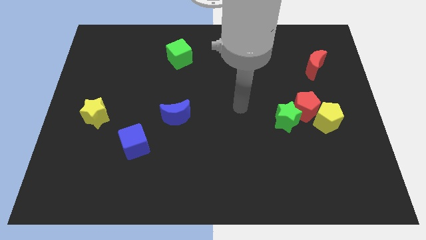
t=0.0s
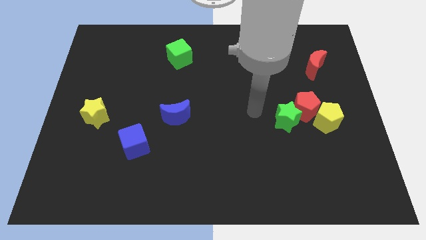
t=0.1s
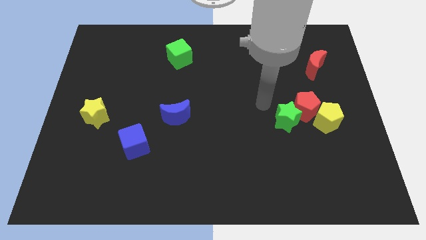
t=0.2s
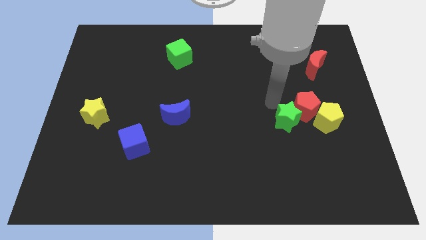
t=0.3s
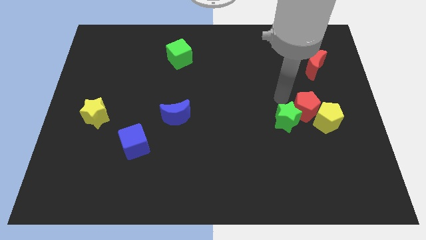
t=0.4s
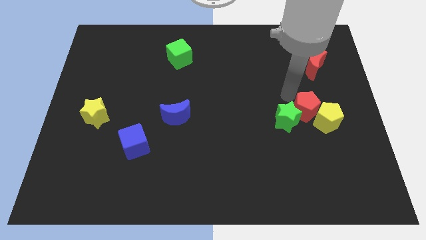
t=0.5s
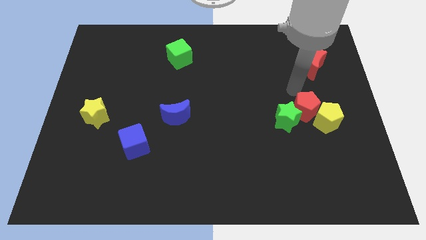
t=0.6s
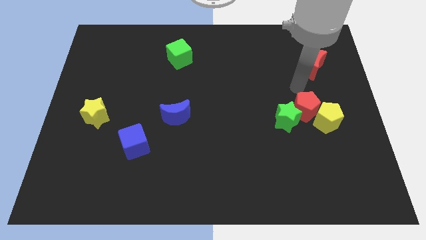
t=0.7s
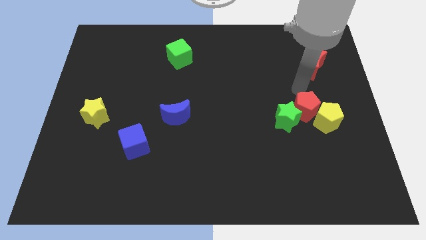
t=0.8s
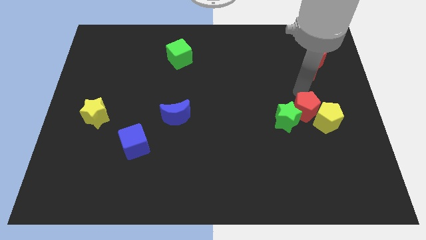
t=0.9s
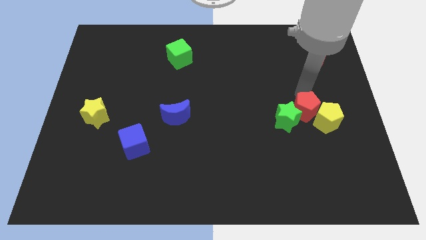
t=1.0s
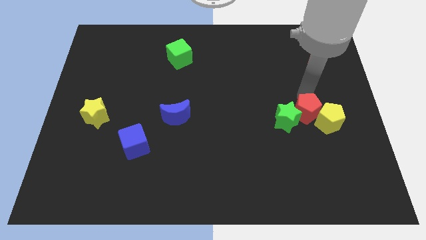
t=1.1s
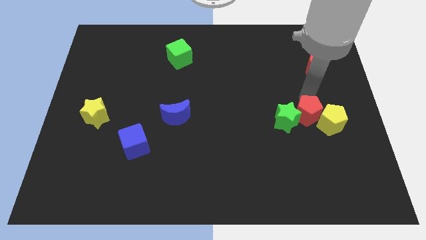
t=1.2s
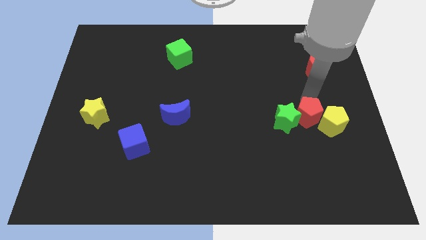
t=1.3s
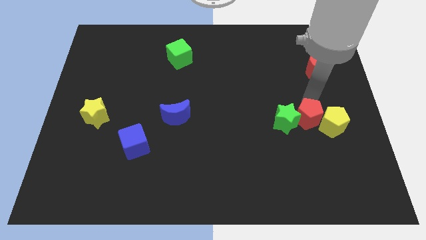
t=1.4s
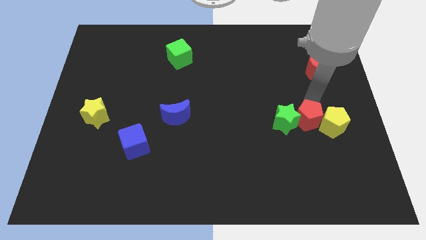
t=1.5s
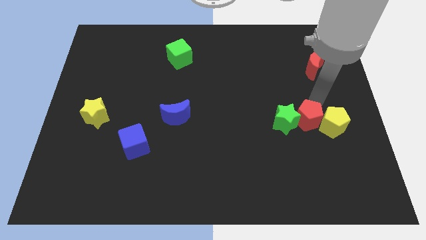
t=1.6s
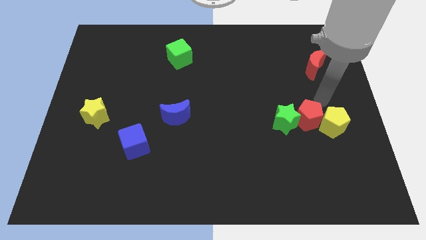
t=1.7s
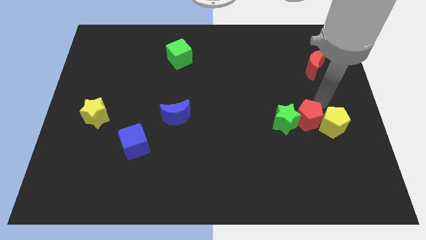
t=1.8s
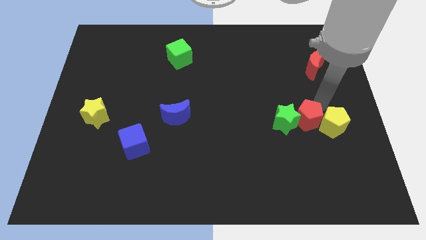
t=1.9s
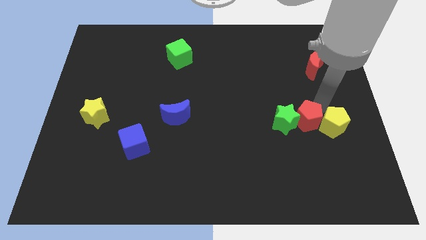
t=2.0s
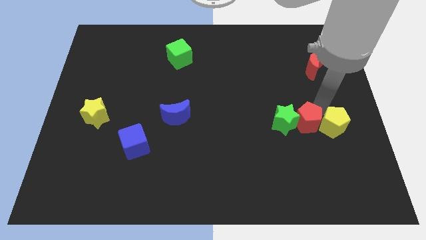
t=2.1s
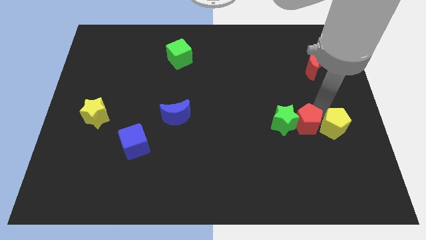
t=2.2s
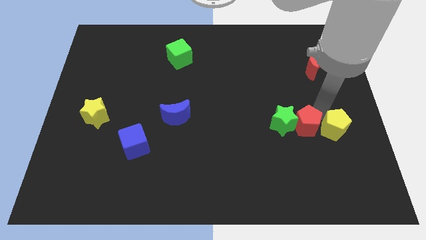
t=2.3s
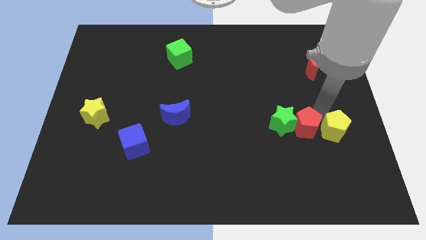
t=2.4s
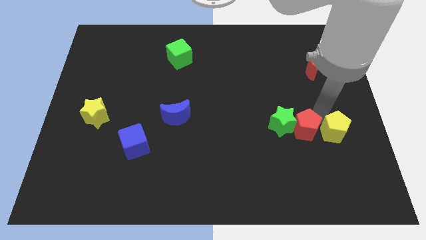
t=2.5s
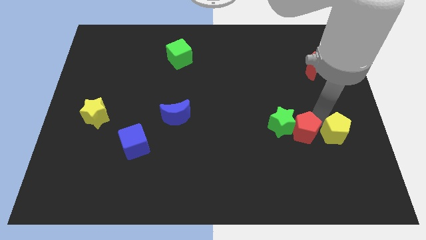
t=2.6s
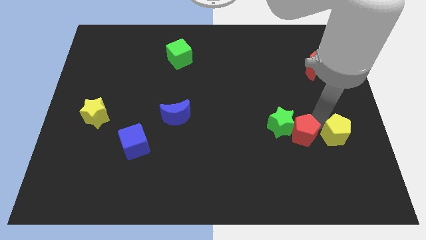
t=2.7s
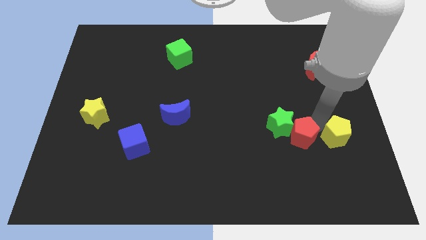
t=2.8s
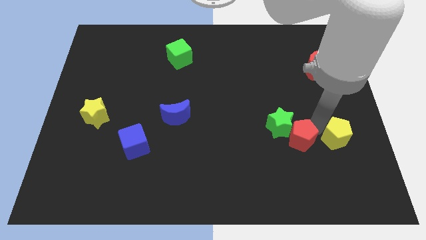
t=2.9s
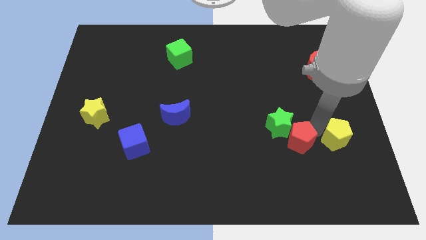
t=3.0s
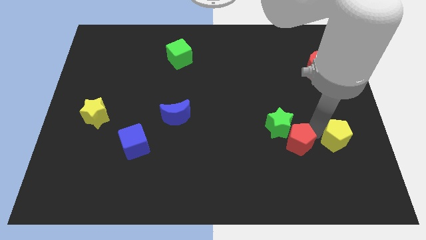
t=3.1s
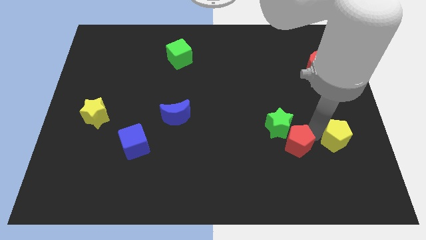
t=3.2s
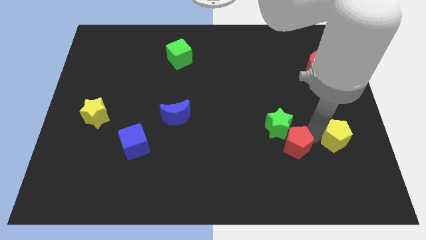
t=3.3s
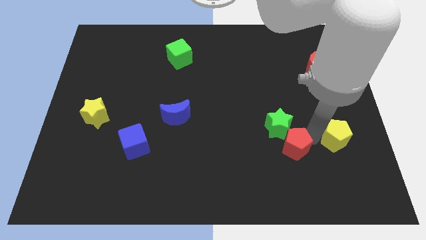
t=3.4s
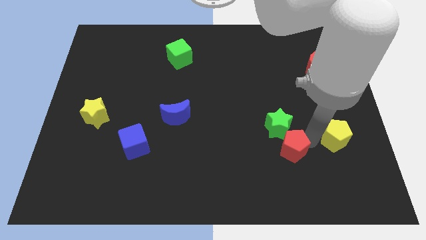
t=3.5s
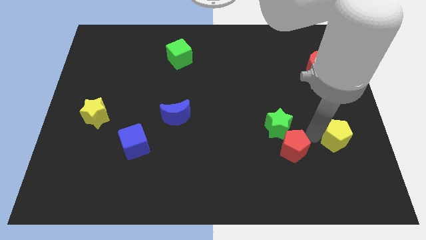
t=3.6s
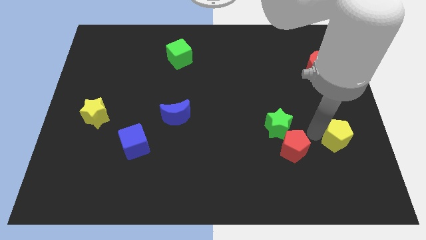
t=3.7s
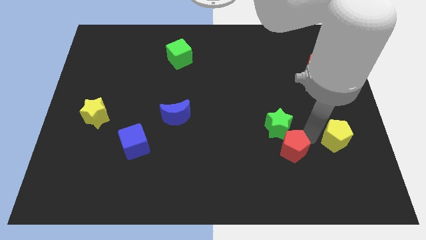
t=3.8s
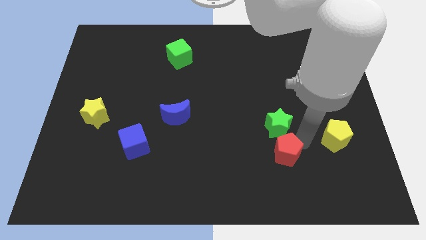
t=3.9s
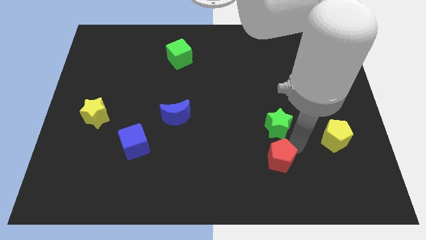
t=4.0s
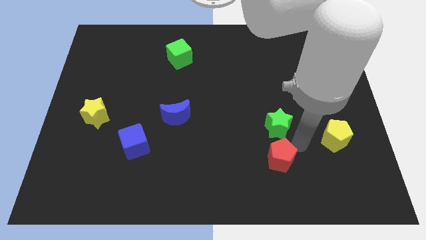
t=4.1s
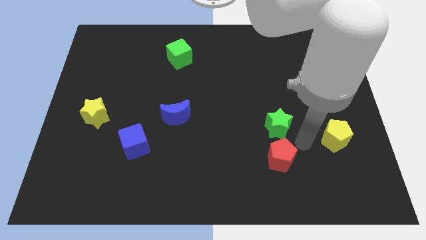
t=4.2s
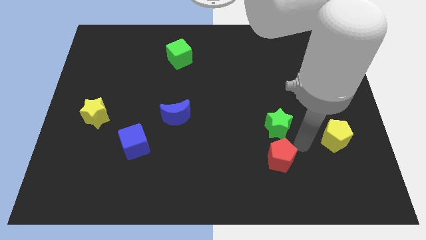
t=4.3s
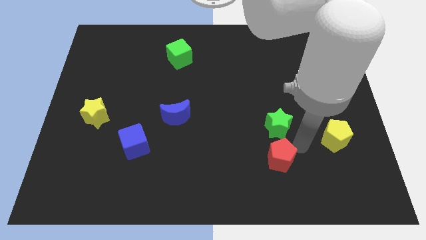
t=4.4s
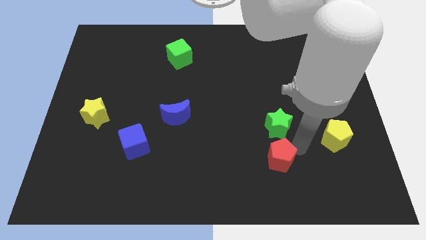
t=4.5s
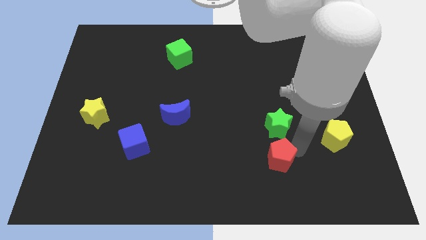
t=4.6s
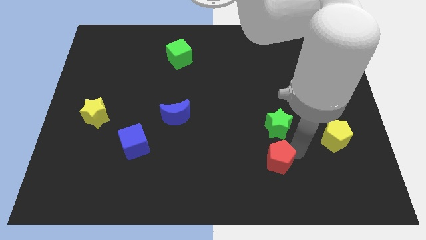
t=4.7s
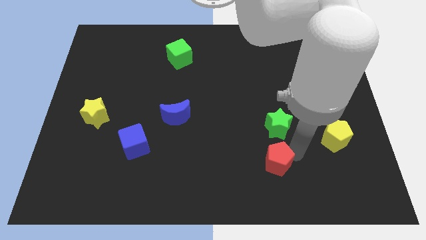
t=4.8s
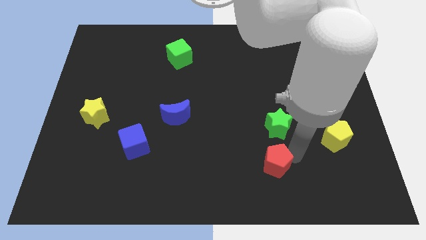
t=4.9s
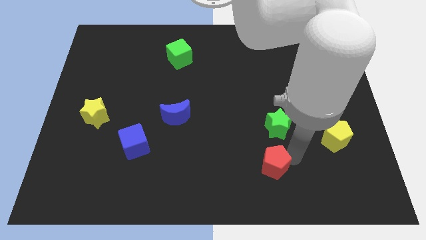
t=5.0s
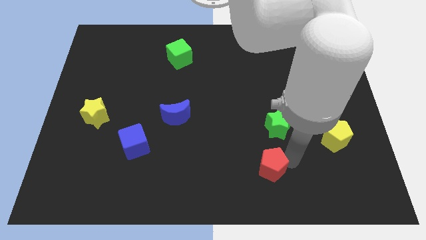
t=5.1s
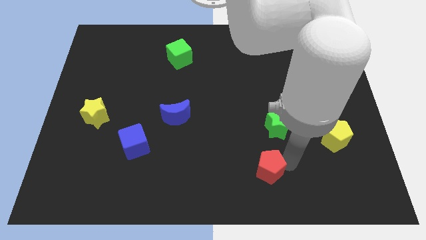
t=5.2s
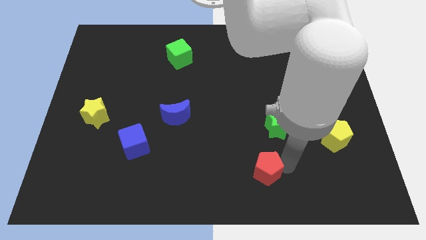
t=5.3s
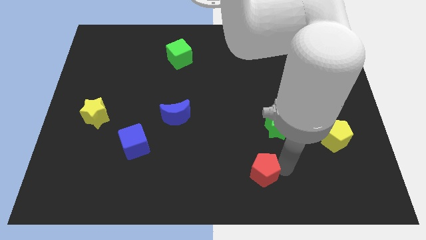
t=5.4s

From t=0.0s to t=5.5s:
slide the red pentagon to the bottom

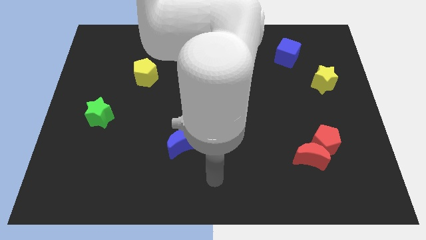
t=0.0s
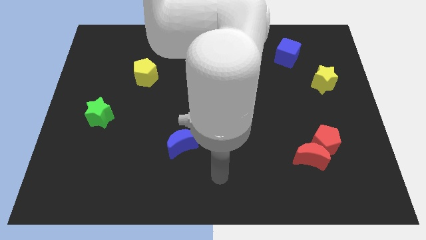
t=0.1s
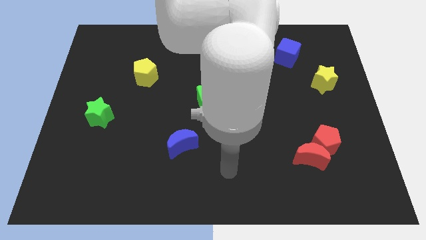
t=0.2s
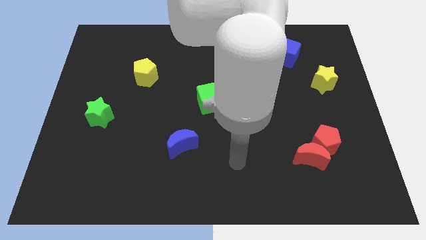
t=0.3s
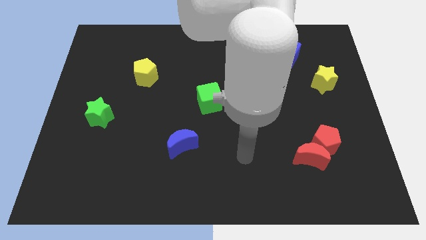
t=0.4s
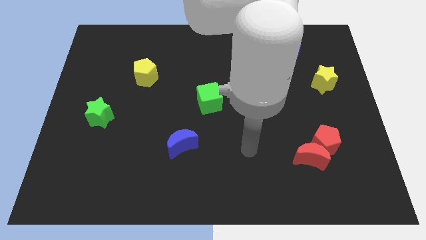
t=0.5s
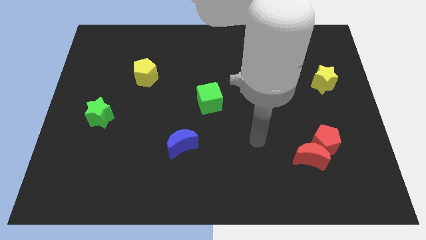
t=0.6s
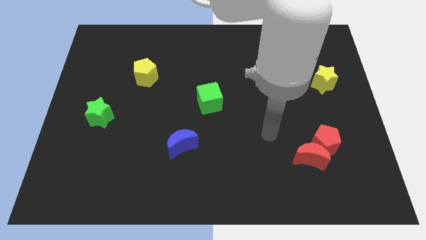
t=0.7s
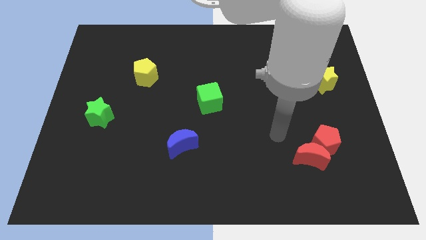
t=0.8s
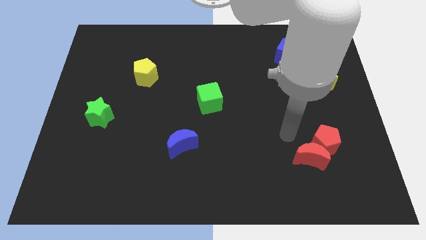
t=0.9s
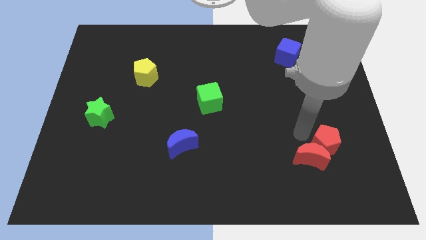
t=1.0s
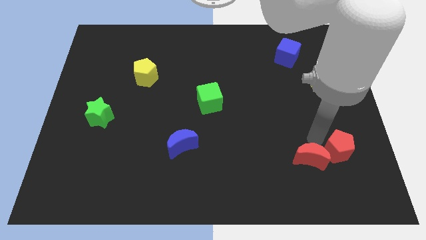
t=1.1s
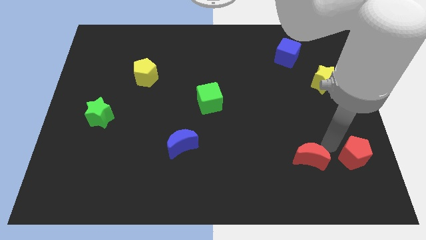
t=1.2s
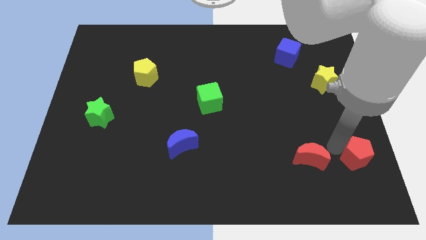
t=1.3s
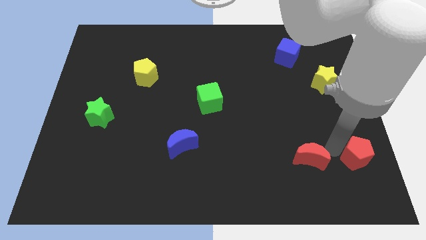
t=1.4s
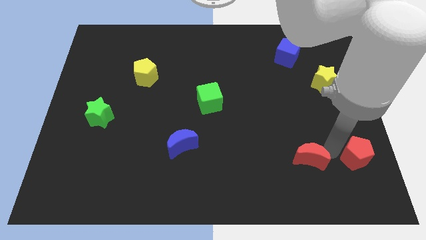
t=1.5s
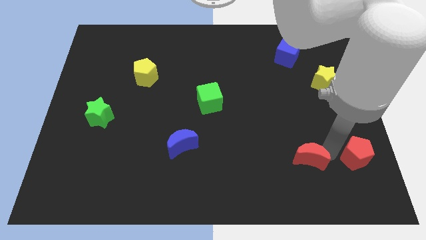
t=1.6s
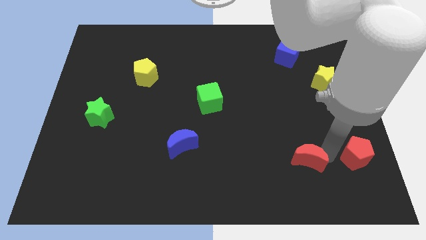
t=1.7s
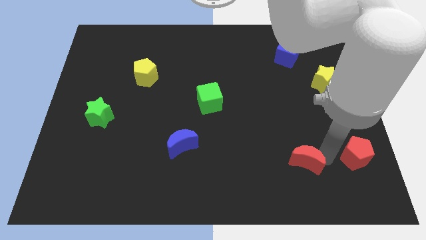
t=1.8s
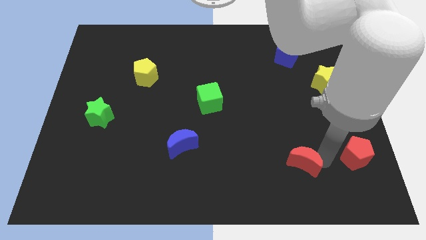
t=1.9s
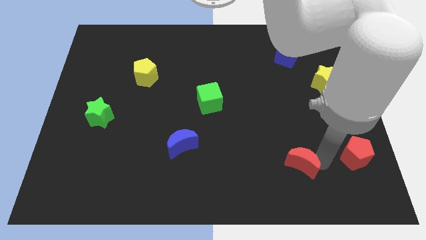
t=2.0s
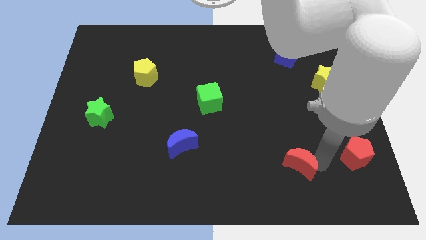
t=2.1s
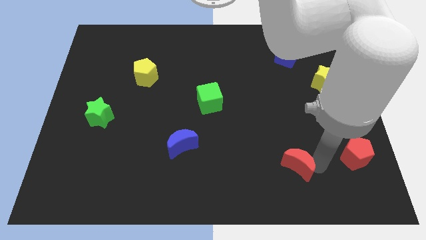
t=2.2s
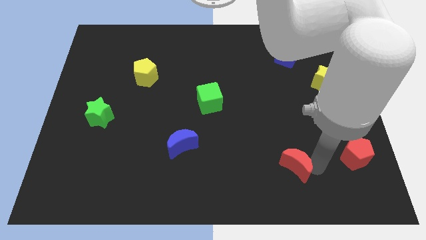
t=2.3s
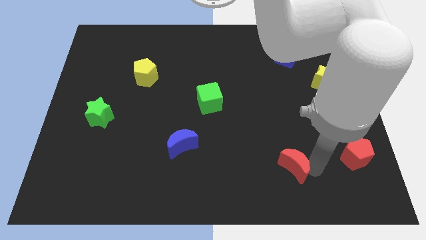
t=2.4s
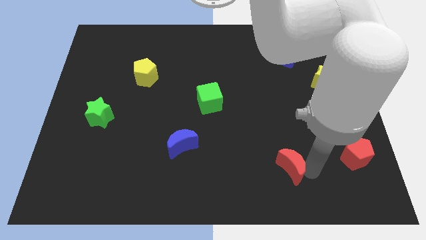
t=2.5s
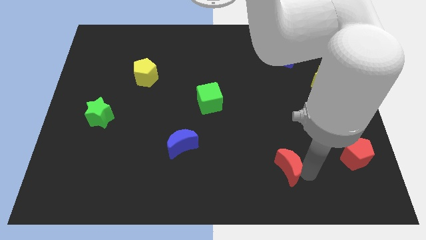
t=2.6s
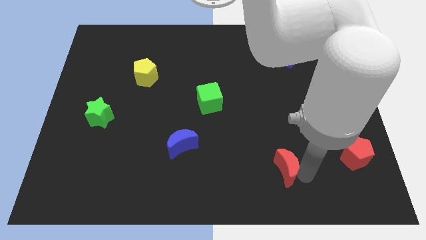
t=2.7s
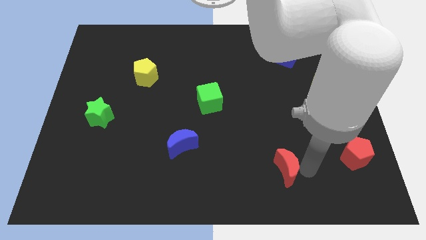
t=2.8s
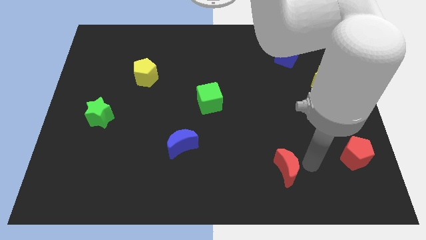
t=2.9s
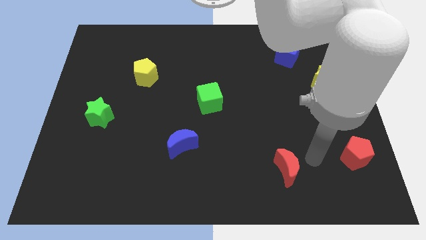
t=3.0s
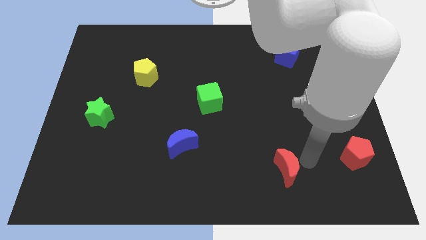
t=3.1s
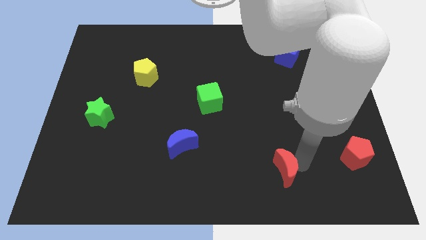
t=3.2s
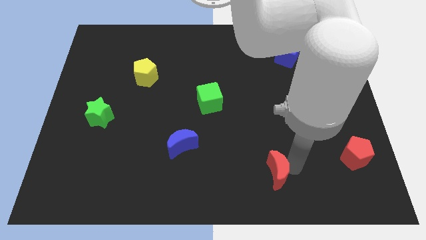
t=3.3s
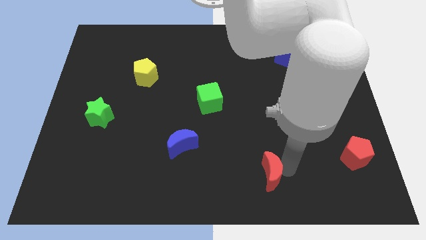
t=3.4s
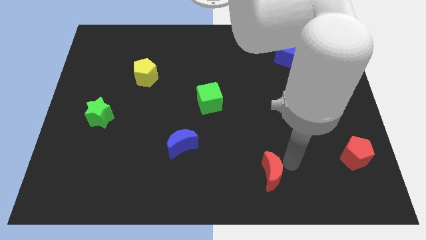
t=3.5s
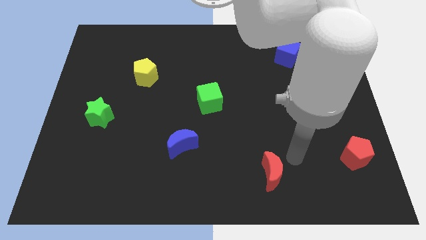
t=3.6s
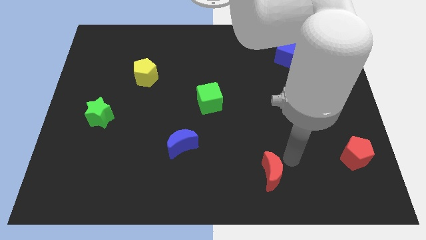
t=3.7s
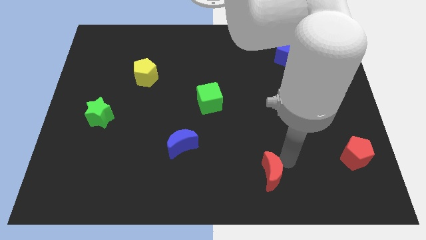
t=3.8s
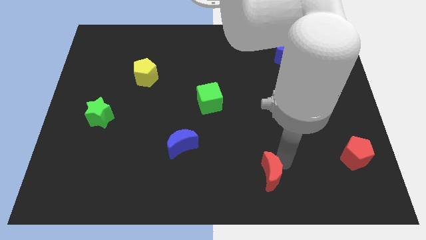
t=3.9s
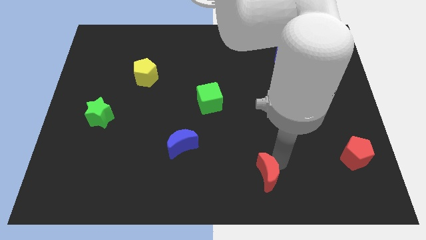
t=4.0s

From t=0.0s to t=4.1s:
slide the red moon to the bottom side
